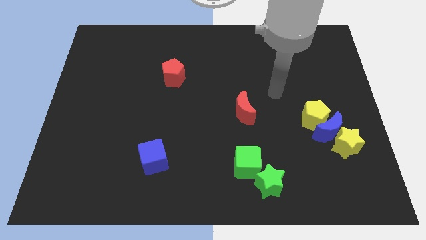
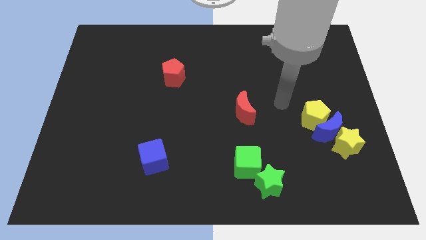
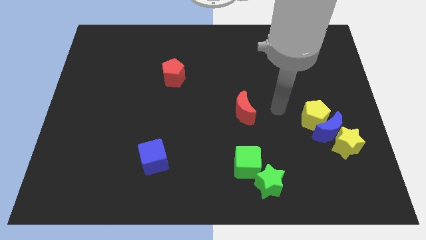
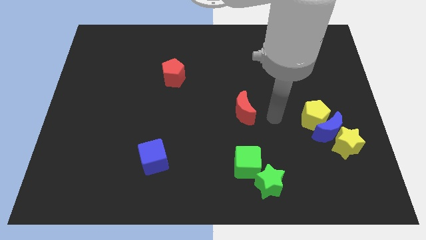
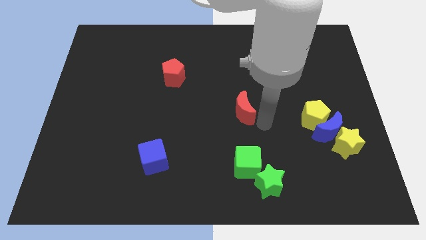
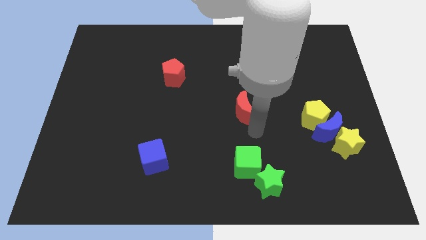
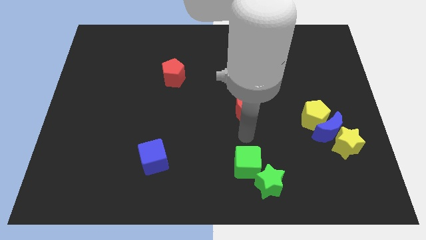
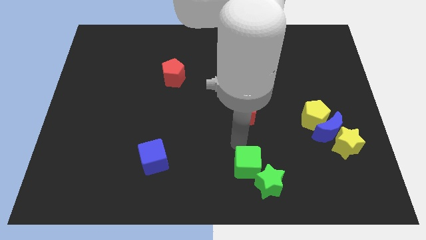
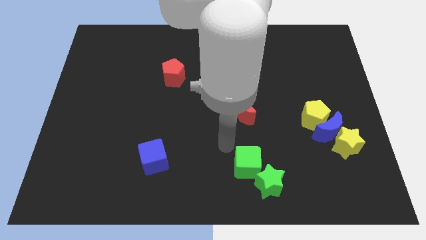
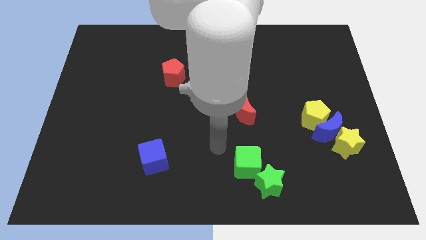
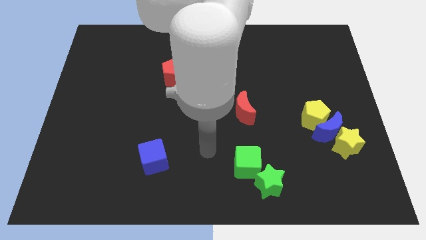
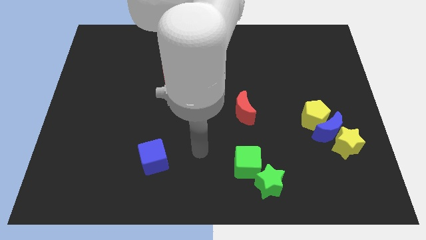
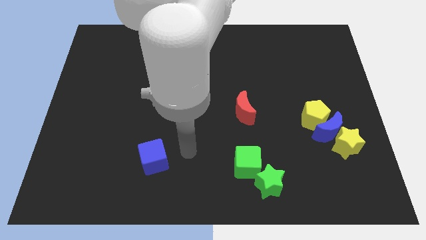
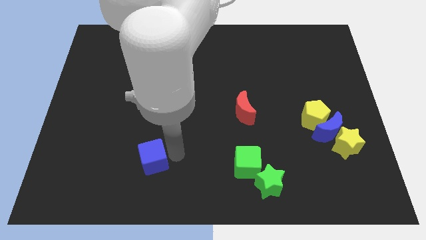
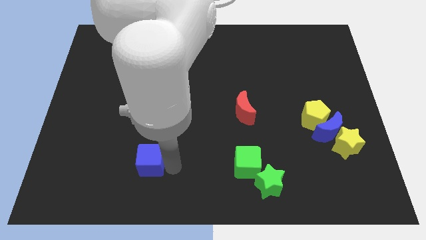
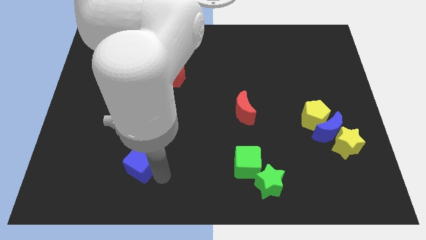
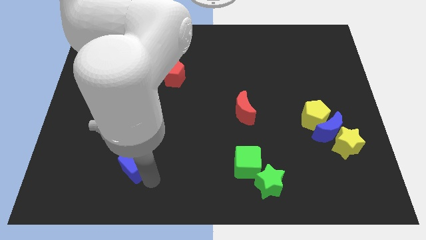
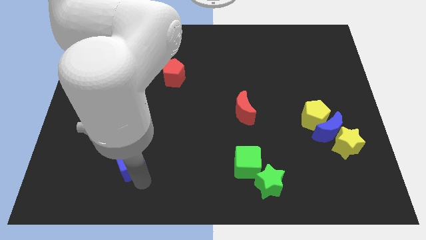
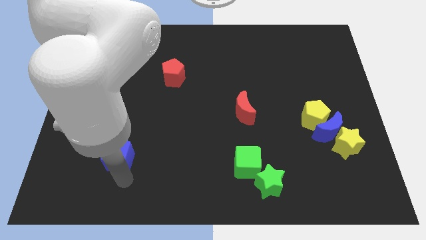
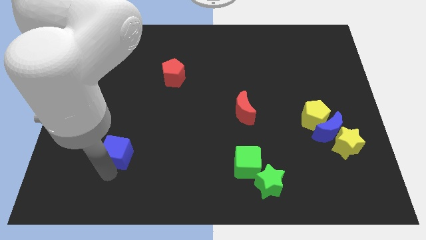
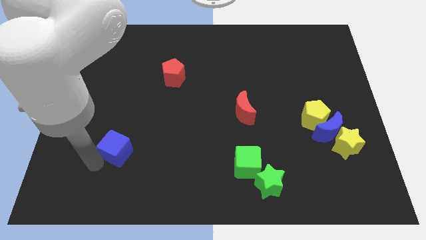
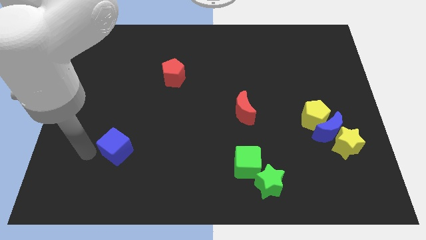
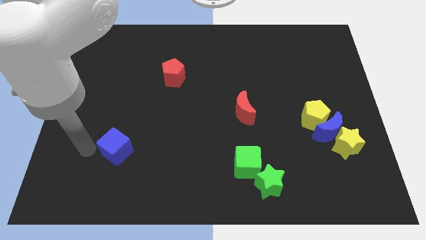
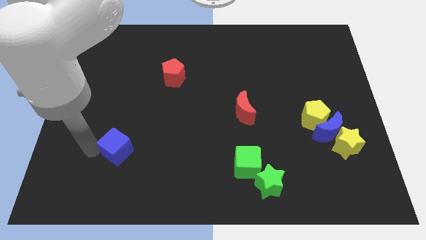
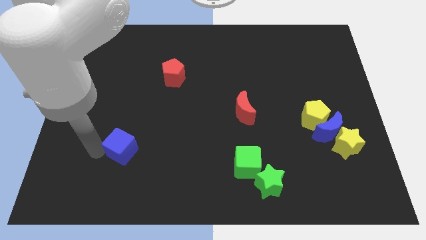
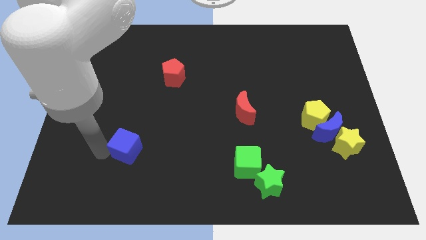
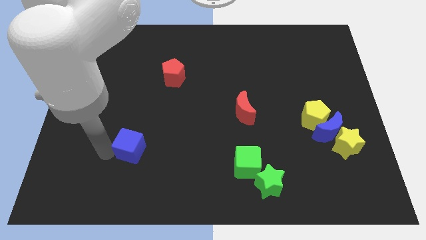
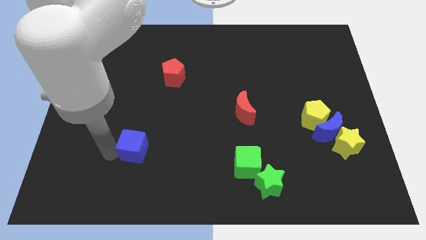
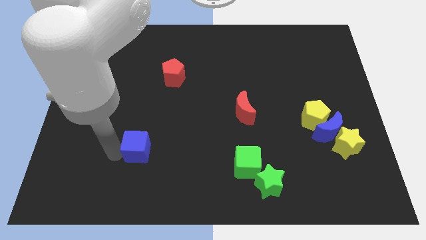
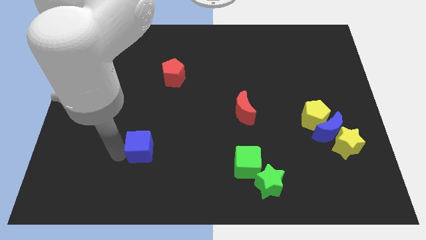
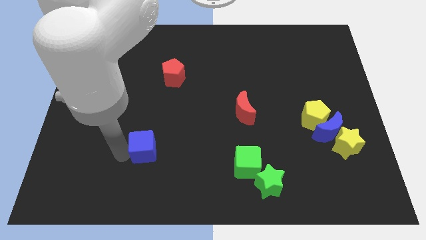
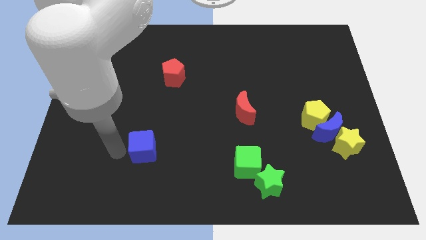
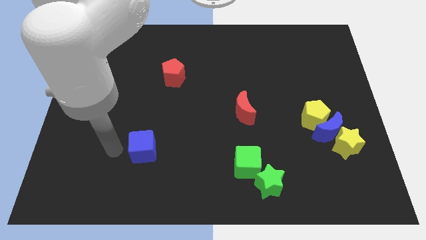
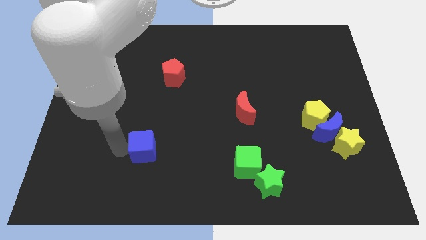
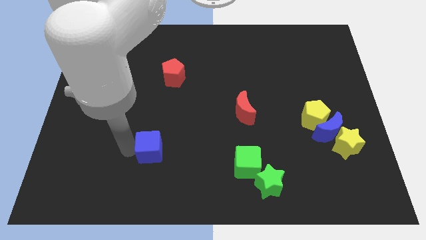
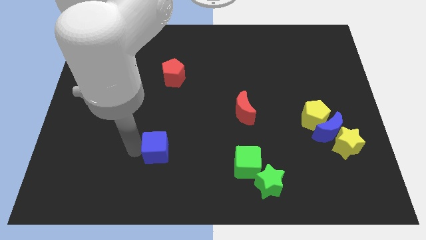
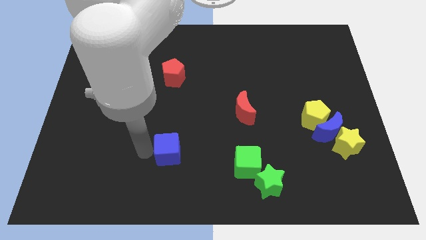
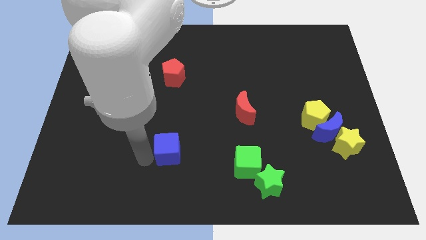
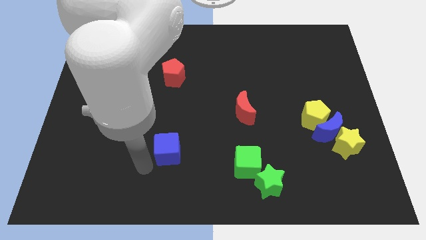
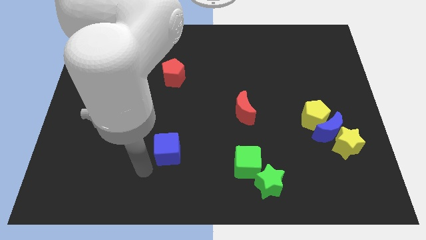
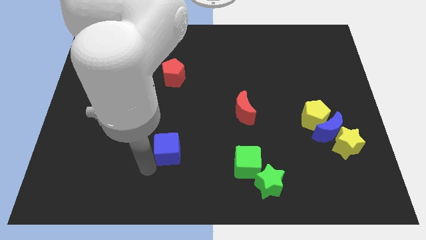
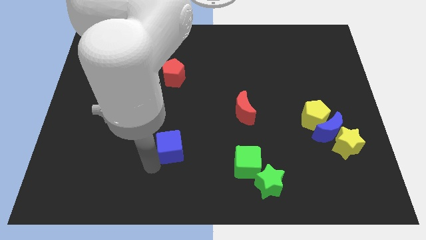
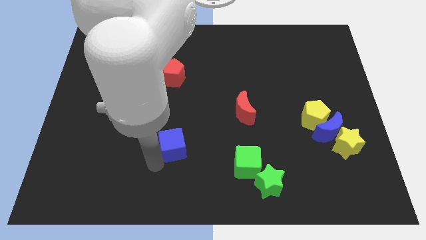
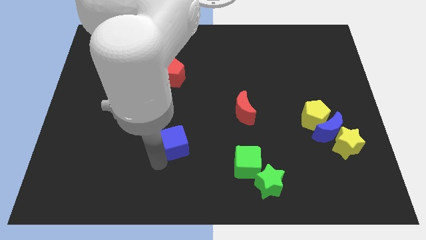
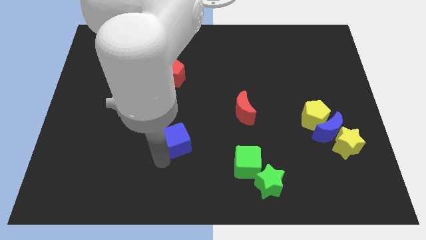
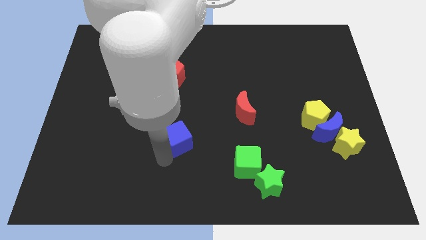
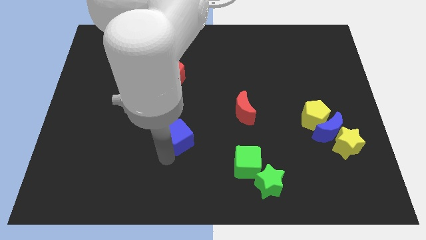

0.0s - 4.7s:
push the blue cube slightly up and to the right

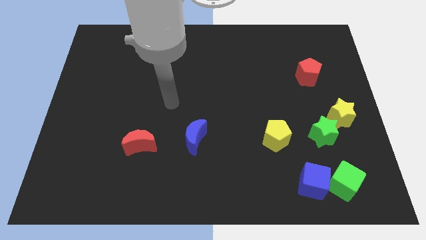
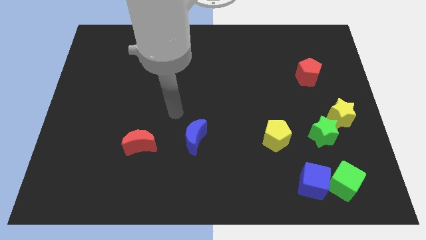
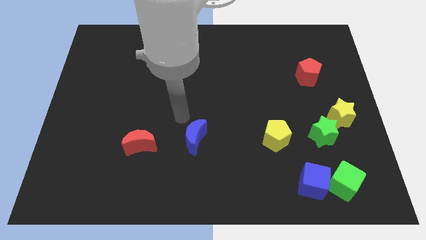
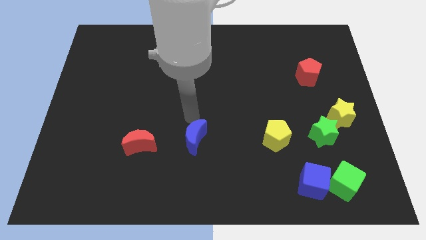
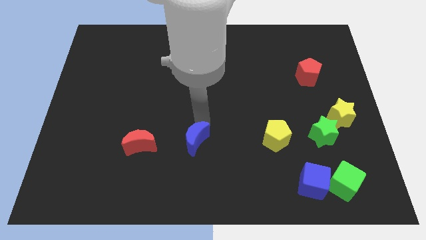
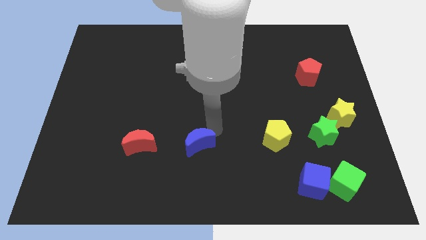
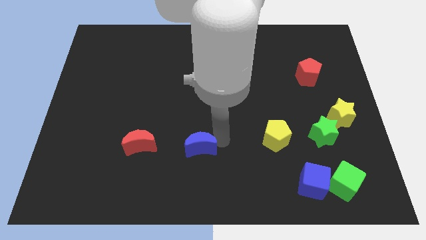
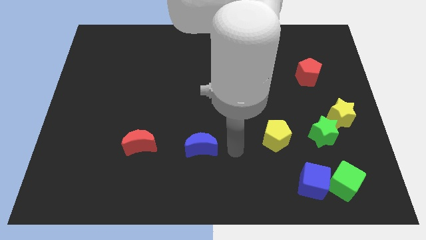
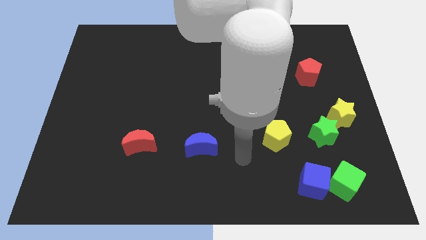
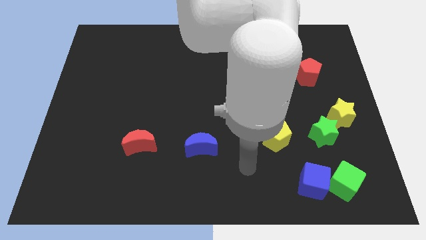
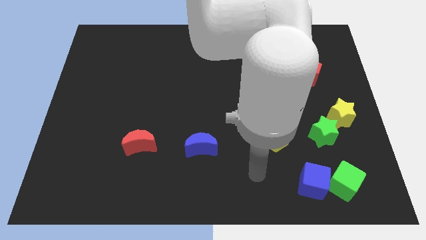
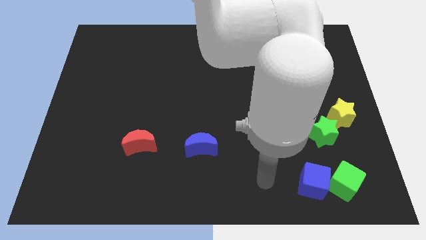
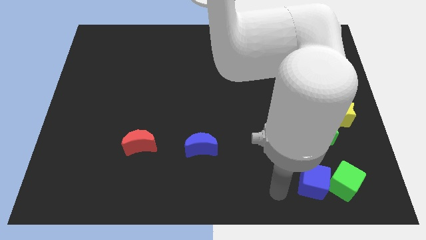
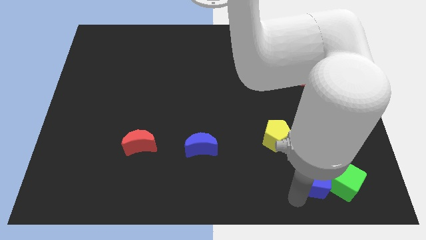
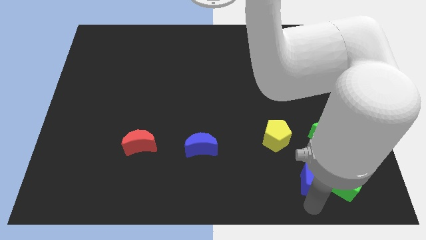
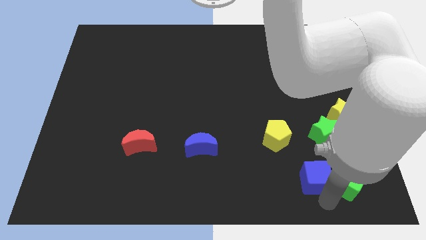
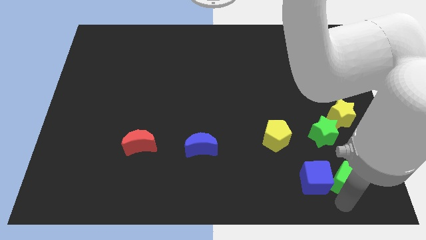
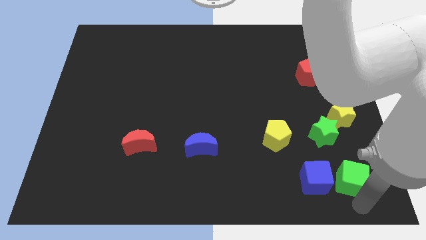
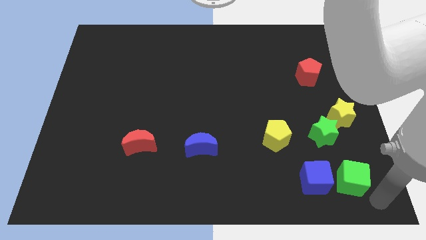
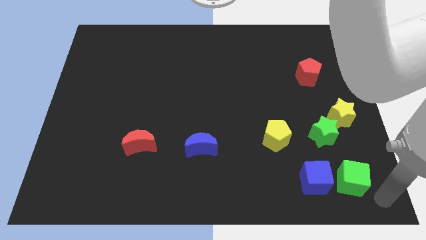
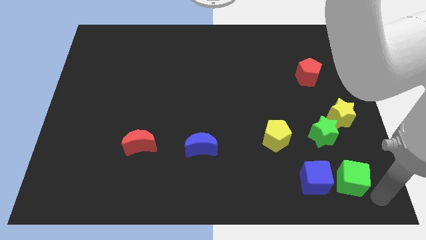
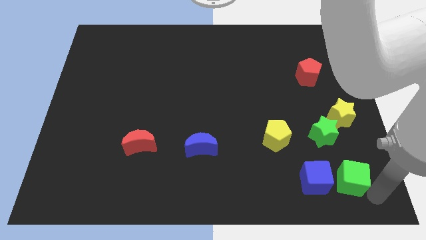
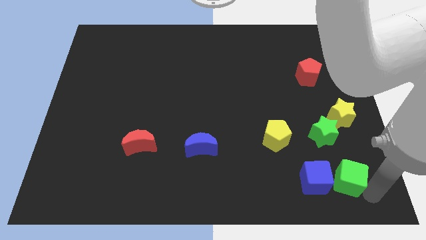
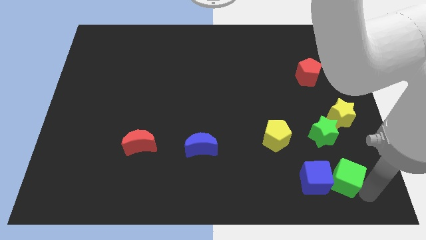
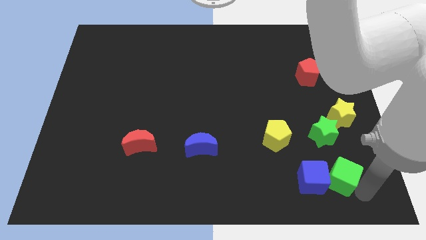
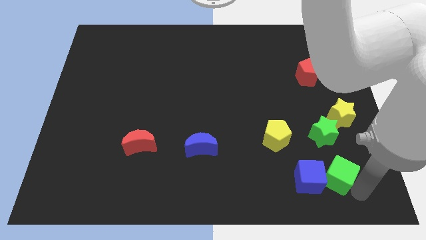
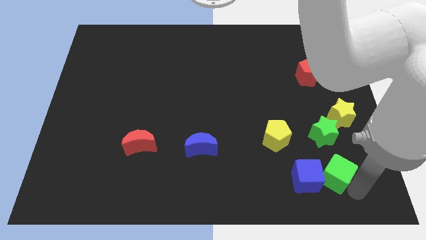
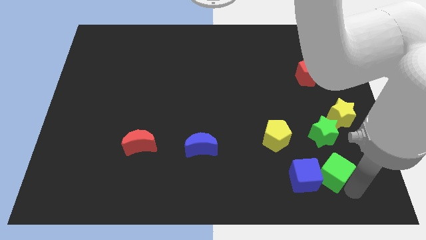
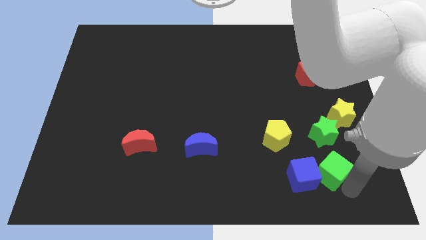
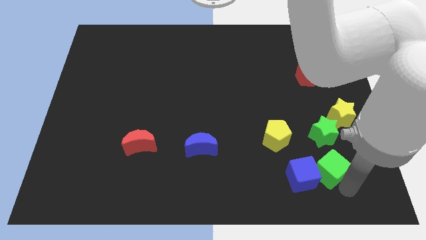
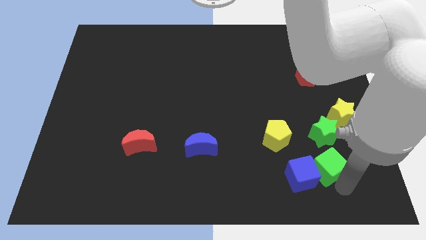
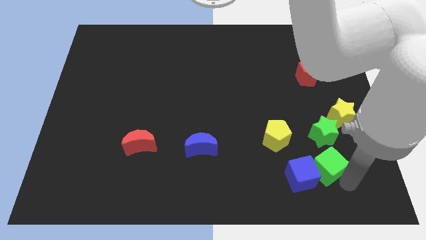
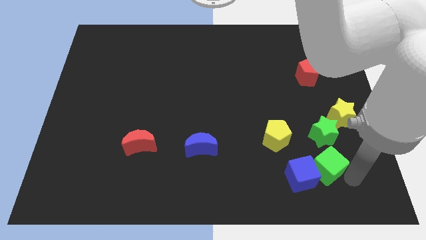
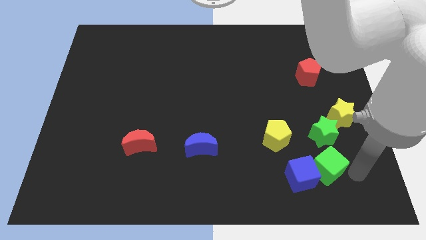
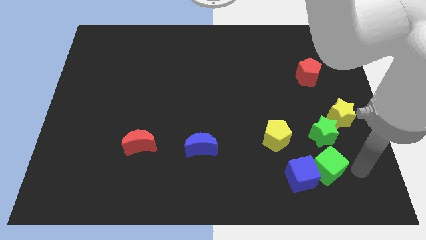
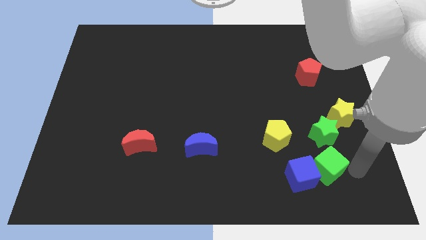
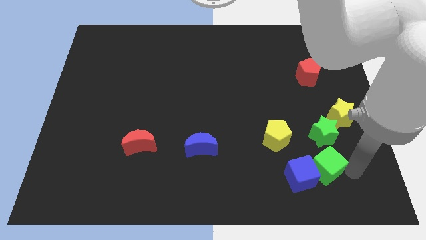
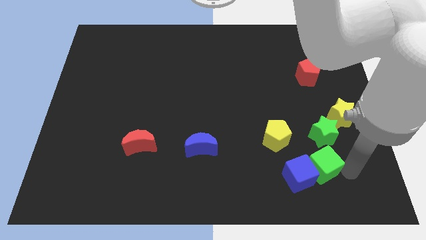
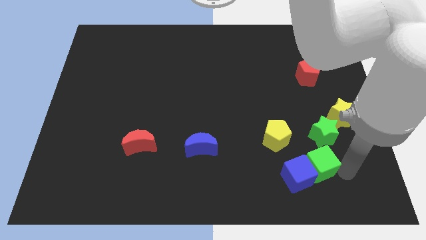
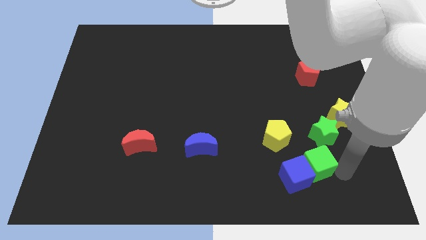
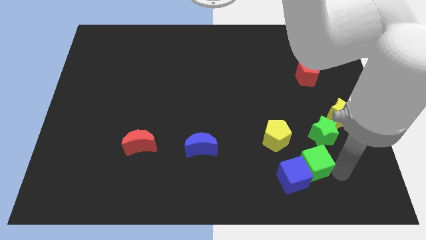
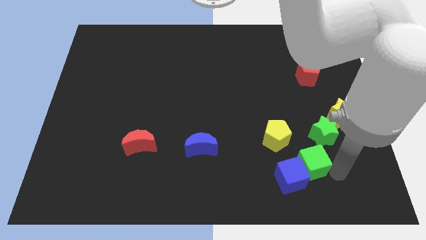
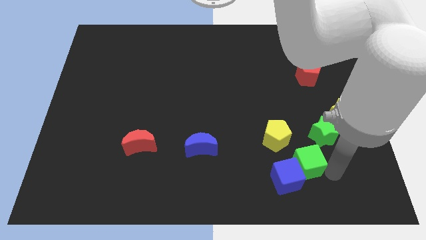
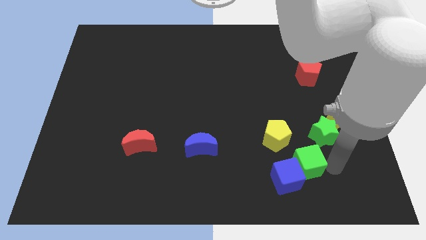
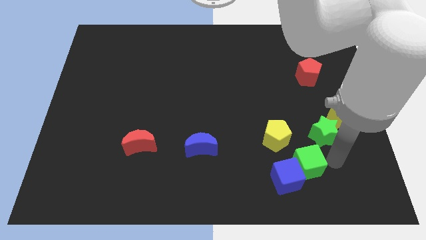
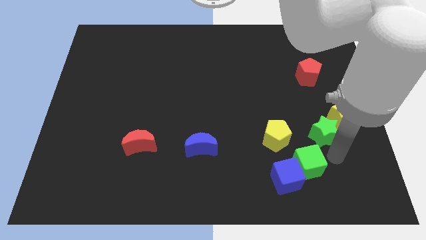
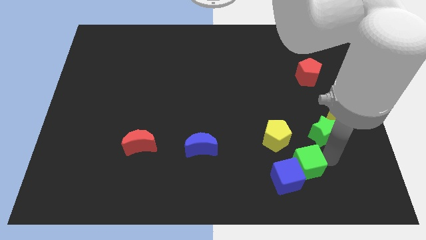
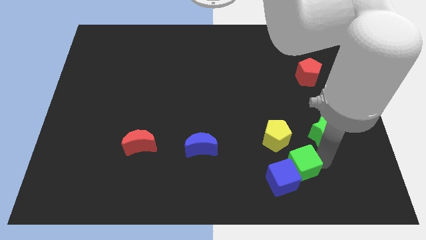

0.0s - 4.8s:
slide the green cube a little left
